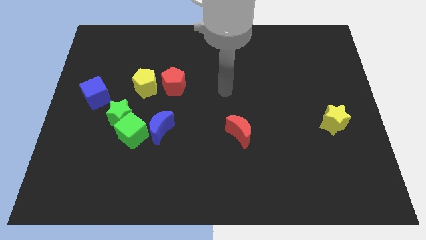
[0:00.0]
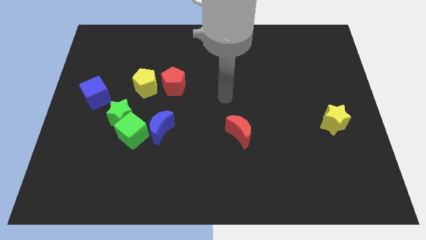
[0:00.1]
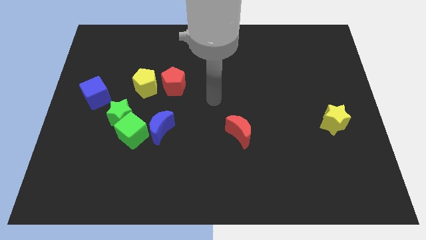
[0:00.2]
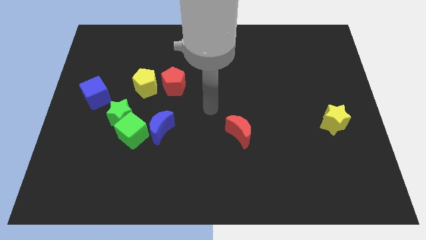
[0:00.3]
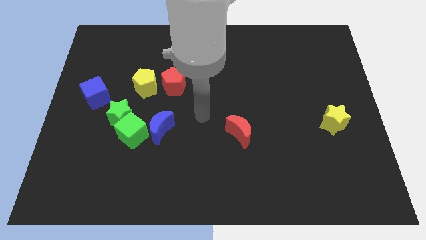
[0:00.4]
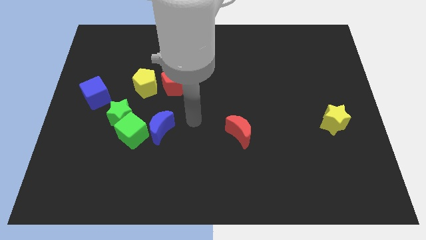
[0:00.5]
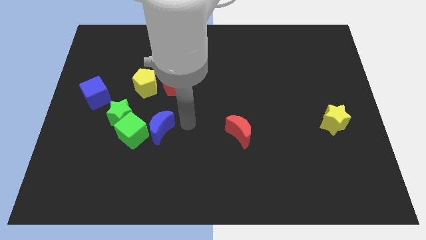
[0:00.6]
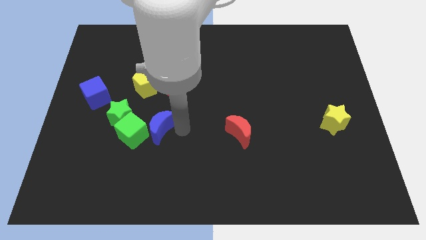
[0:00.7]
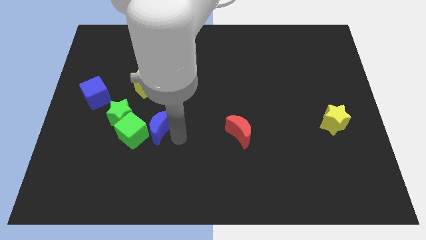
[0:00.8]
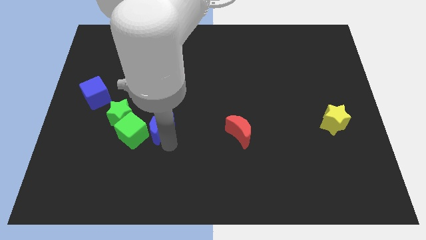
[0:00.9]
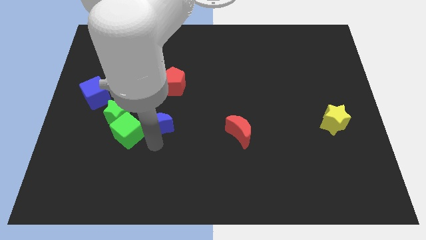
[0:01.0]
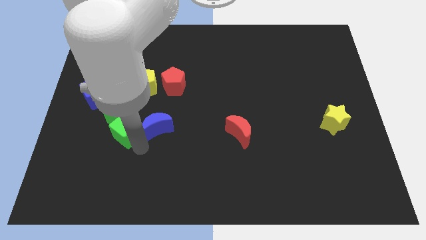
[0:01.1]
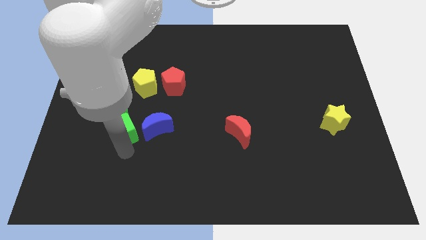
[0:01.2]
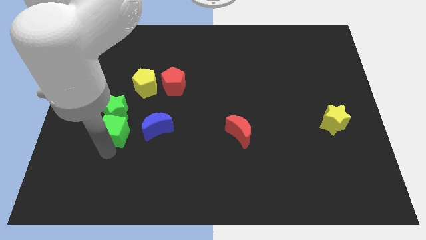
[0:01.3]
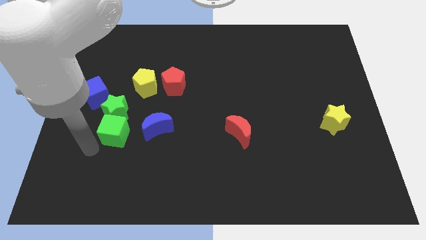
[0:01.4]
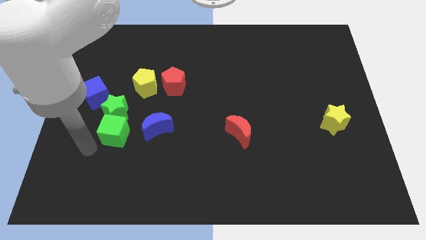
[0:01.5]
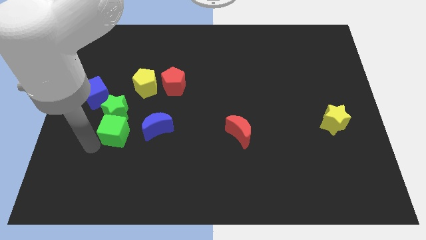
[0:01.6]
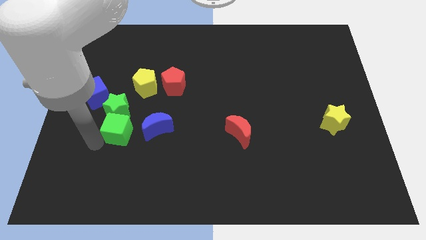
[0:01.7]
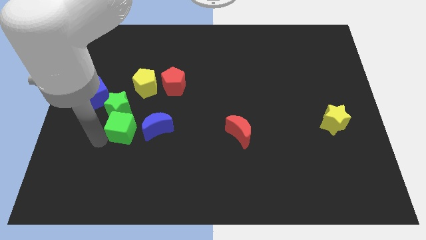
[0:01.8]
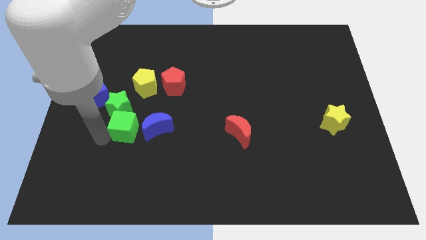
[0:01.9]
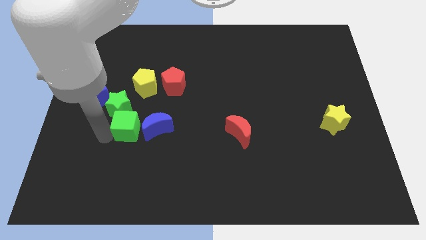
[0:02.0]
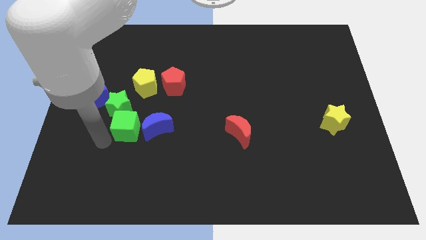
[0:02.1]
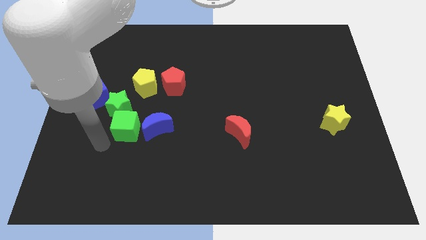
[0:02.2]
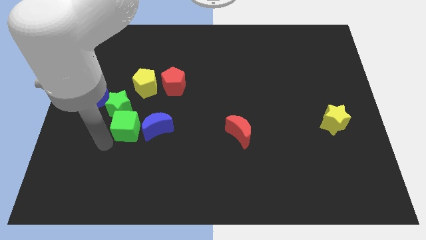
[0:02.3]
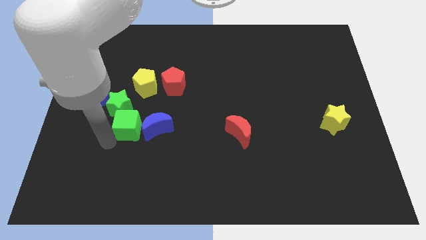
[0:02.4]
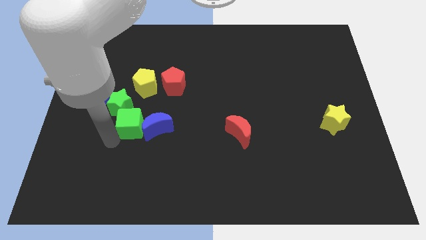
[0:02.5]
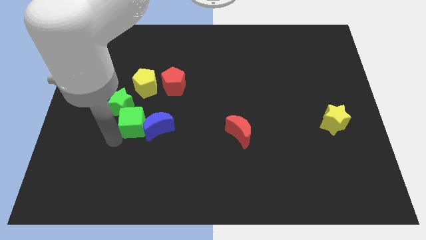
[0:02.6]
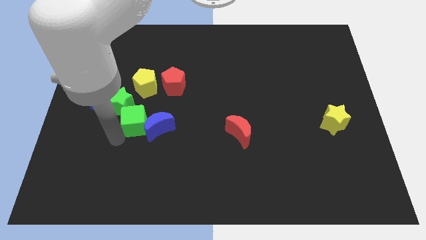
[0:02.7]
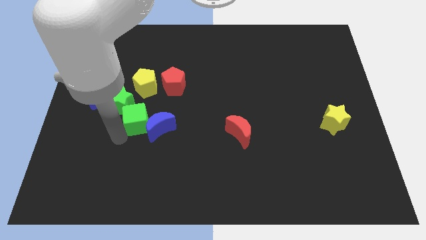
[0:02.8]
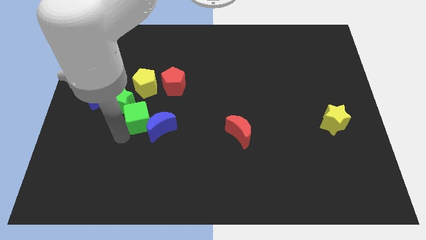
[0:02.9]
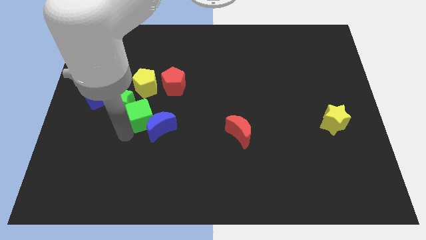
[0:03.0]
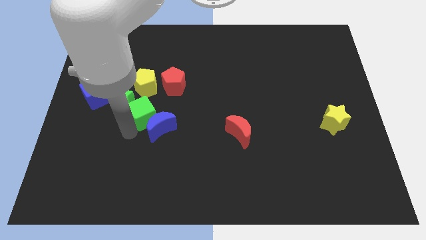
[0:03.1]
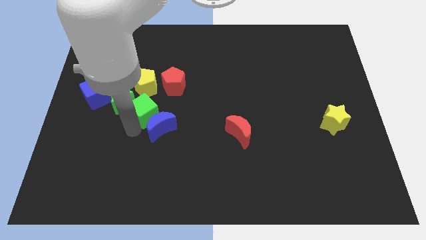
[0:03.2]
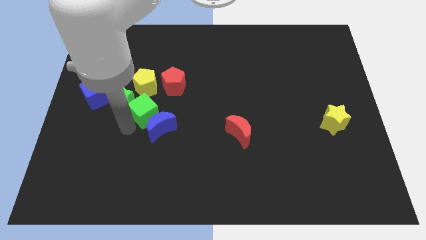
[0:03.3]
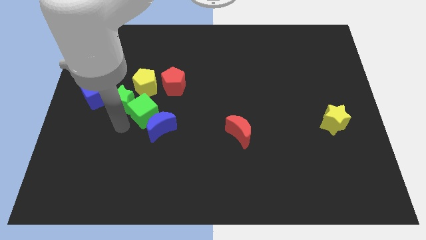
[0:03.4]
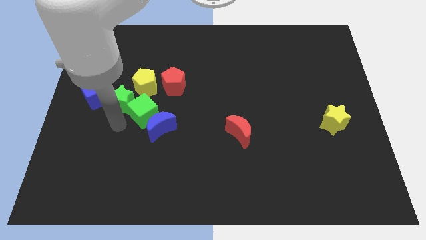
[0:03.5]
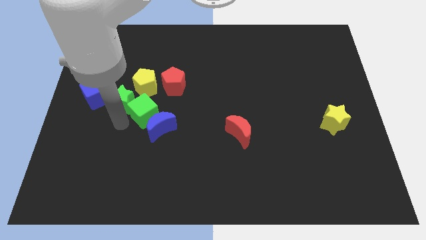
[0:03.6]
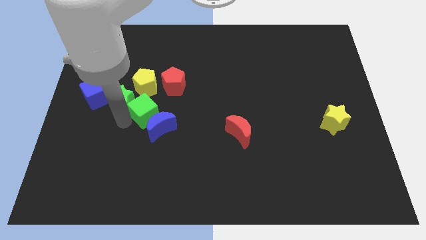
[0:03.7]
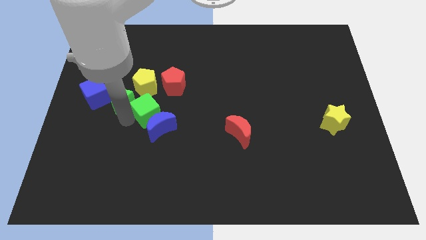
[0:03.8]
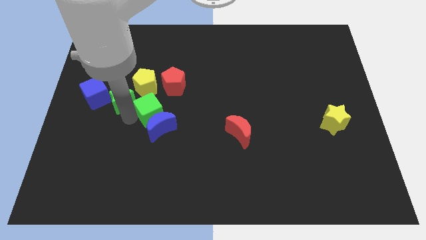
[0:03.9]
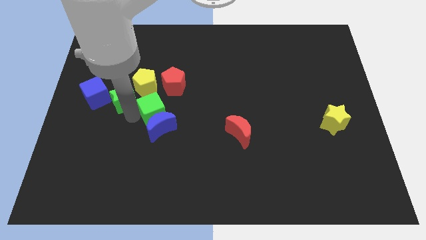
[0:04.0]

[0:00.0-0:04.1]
move the green cube slightly upwards and to the right diagonally

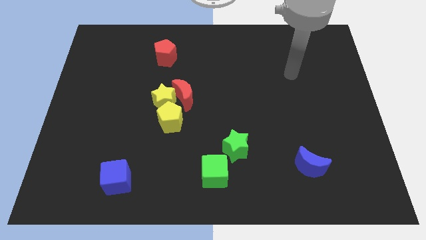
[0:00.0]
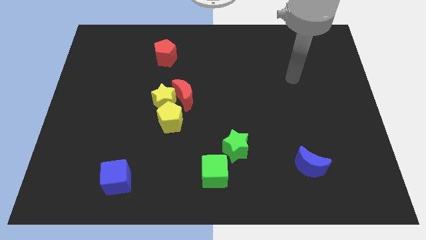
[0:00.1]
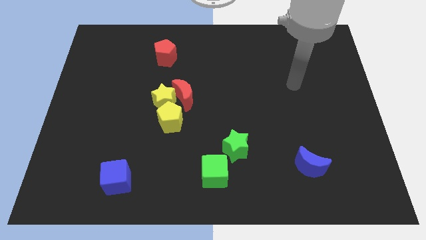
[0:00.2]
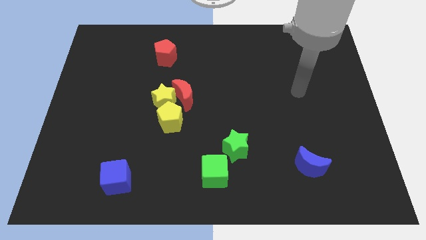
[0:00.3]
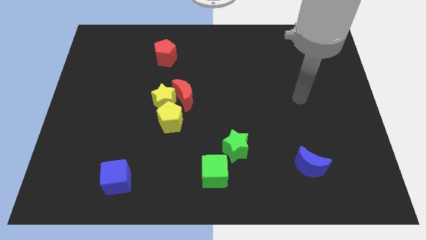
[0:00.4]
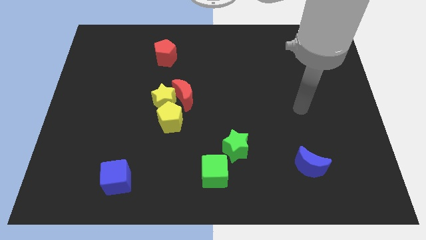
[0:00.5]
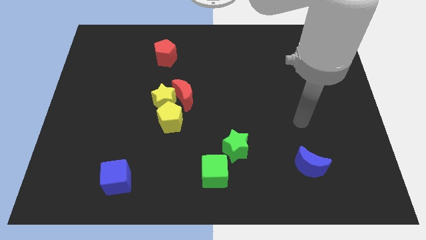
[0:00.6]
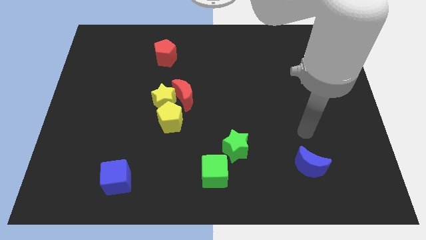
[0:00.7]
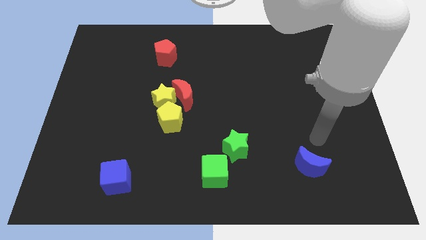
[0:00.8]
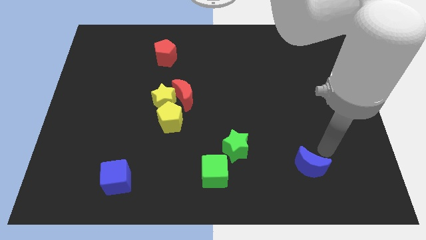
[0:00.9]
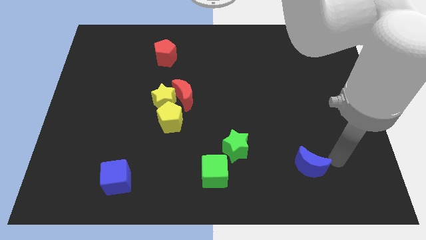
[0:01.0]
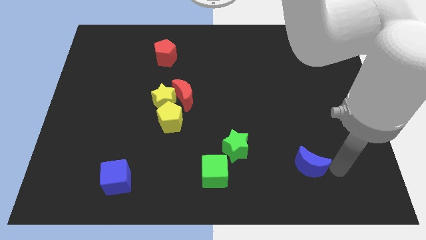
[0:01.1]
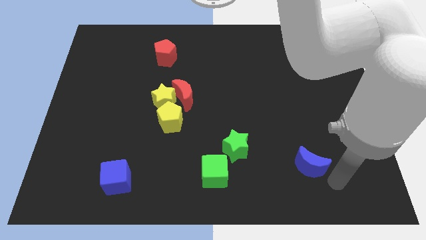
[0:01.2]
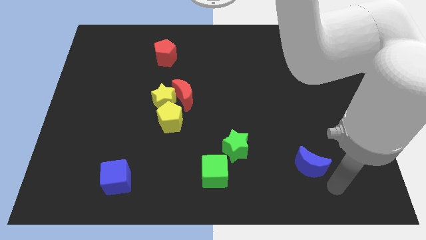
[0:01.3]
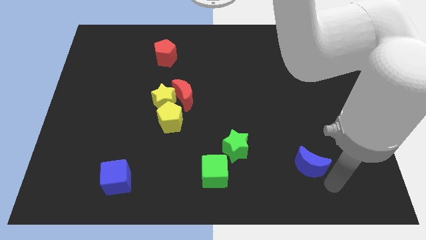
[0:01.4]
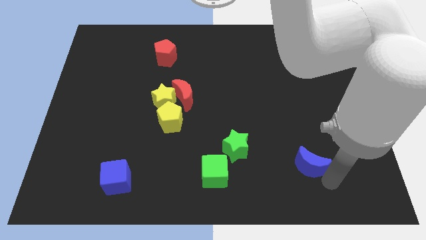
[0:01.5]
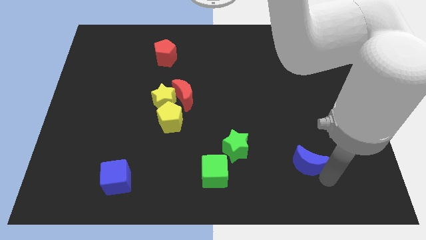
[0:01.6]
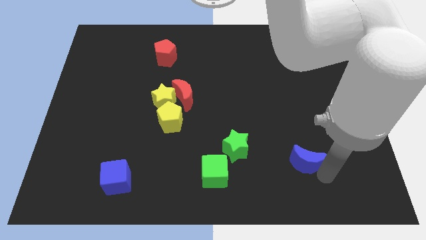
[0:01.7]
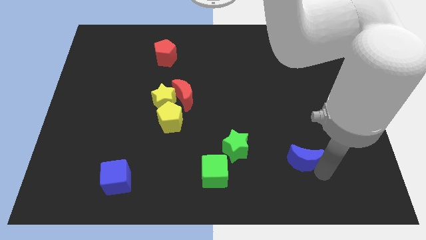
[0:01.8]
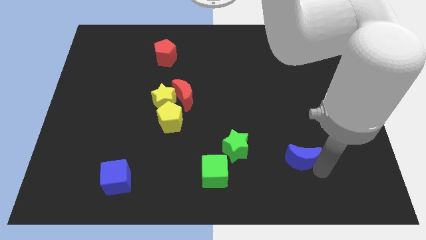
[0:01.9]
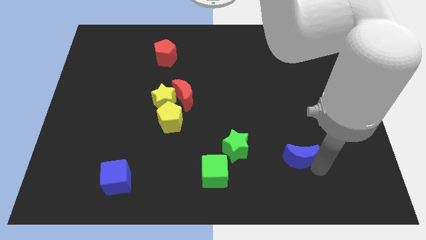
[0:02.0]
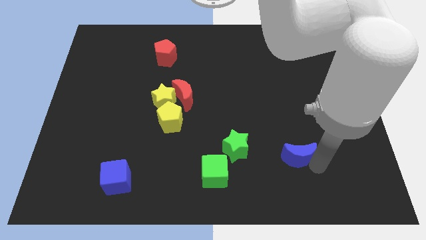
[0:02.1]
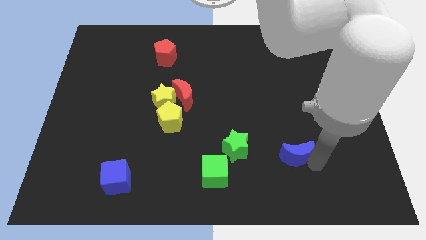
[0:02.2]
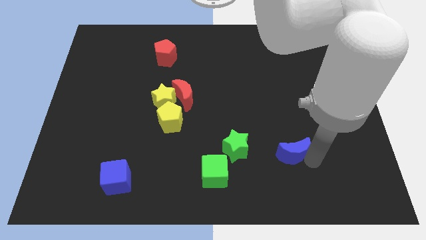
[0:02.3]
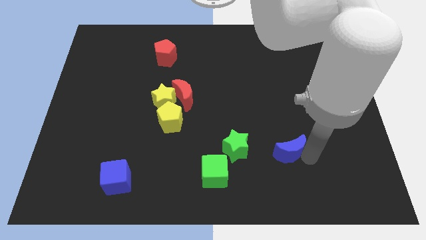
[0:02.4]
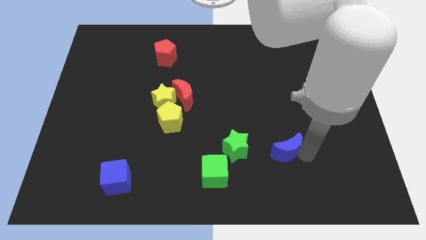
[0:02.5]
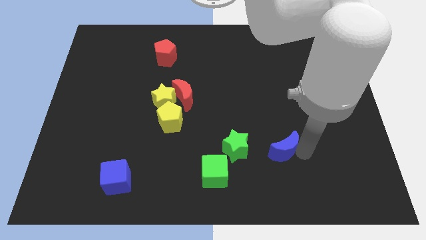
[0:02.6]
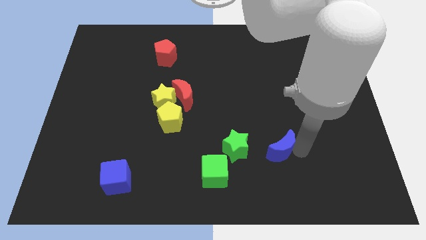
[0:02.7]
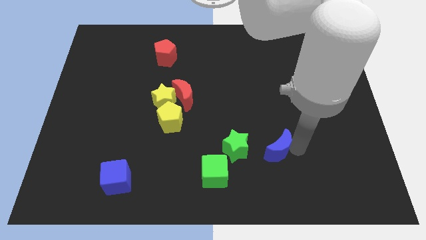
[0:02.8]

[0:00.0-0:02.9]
slide the blue moon somewhat up and left

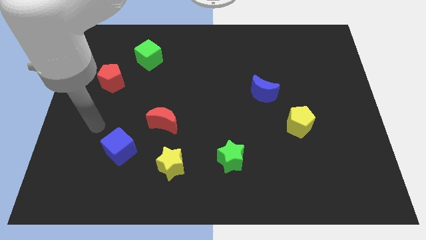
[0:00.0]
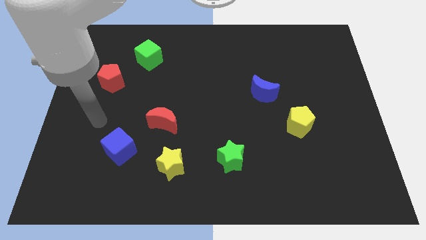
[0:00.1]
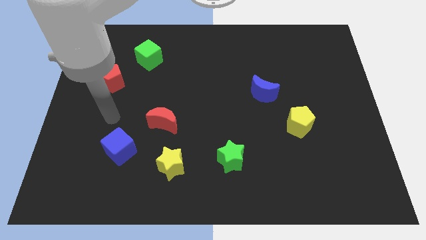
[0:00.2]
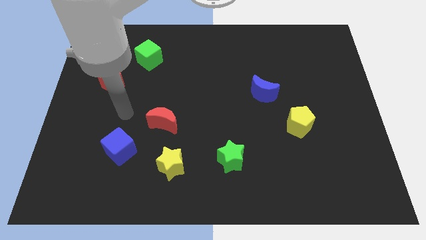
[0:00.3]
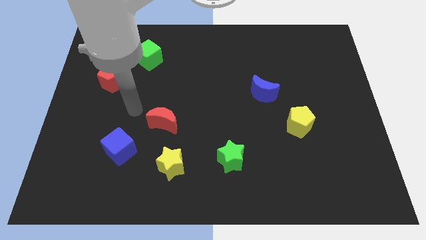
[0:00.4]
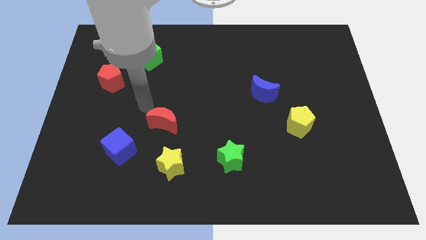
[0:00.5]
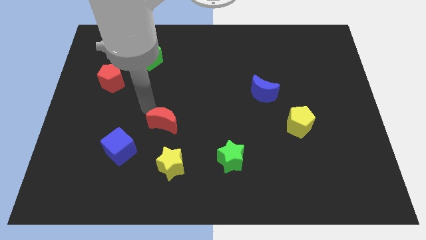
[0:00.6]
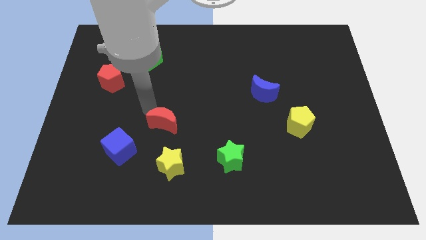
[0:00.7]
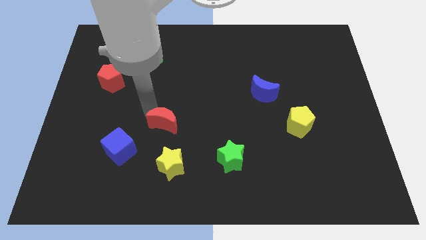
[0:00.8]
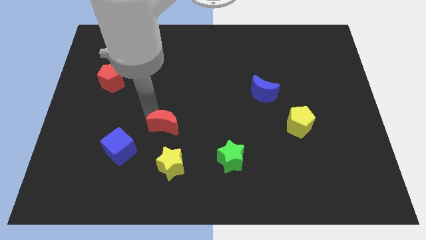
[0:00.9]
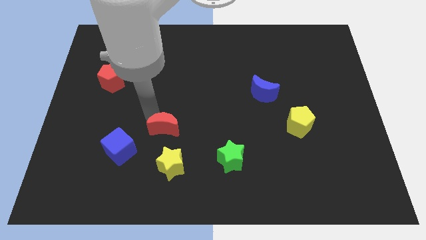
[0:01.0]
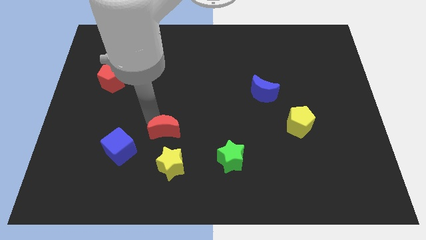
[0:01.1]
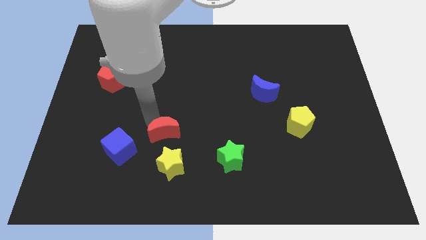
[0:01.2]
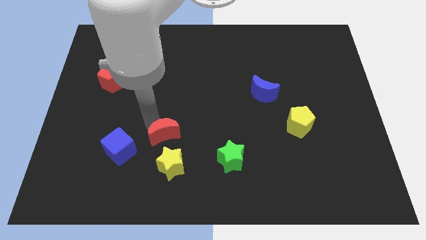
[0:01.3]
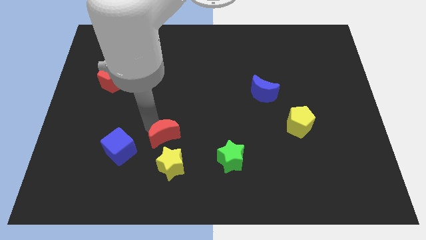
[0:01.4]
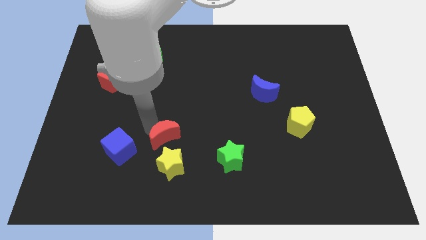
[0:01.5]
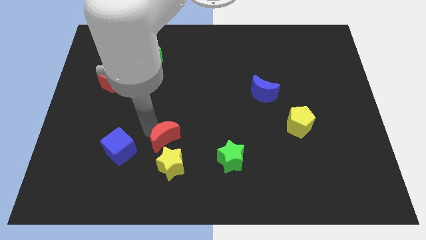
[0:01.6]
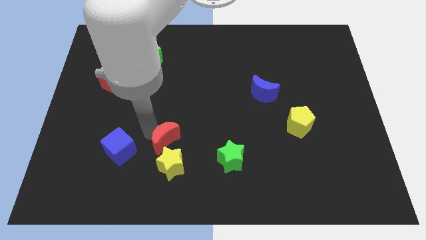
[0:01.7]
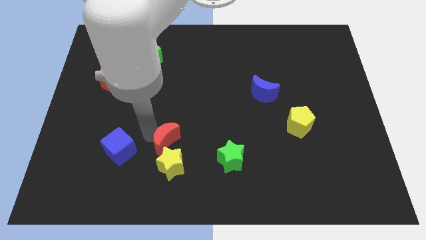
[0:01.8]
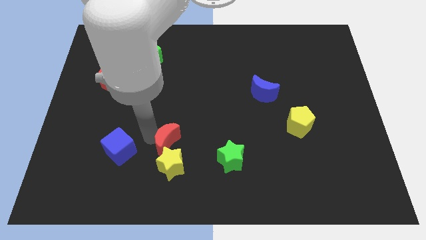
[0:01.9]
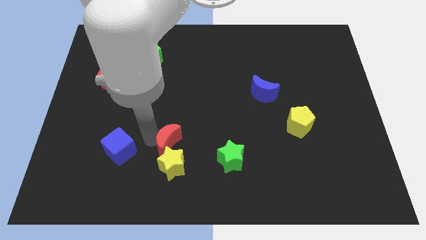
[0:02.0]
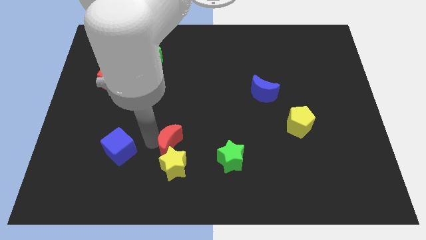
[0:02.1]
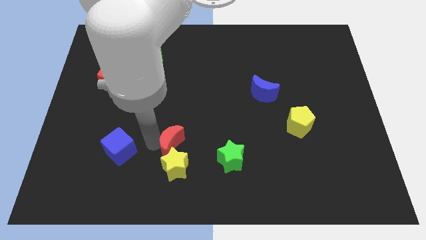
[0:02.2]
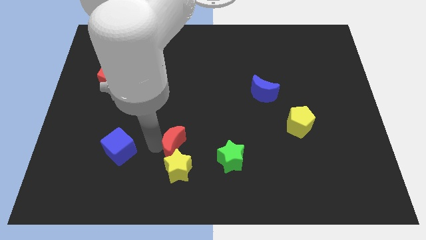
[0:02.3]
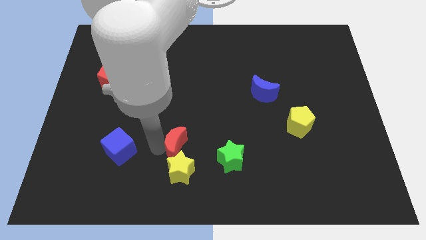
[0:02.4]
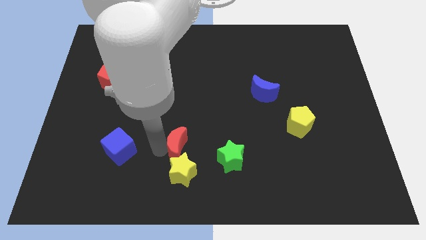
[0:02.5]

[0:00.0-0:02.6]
push the red moon downwards and to the right slightly
